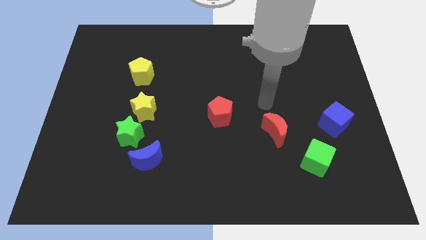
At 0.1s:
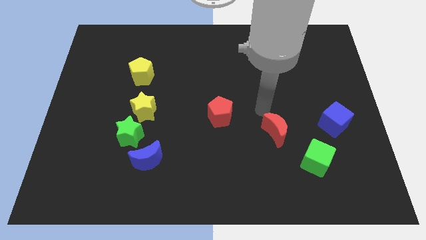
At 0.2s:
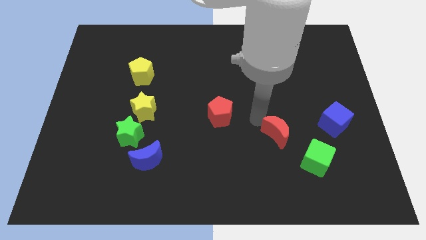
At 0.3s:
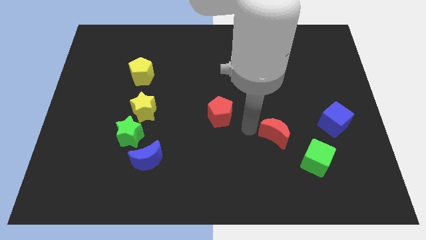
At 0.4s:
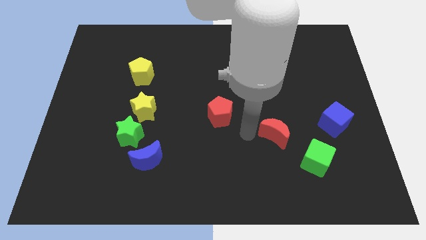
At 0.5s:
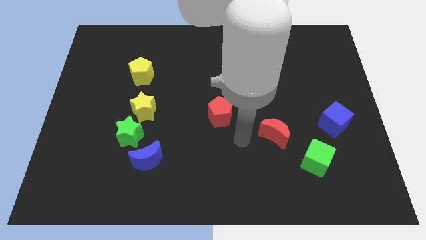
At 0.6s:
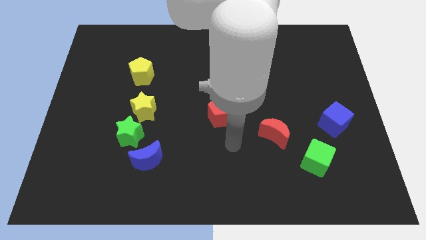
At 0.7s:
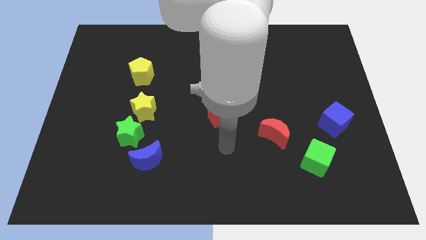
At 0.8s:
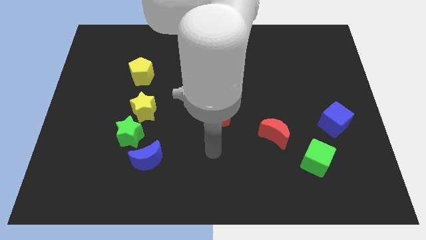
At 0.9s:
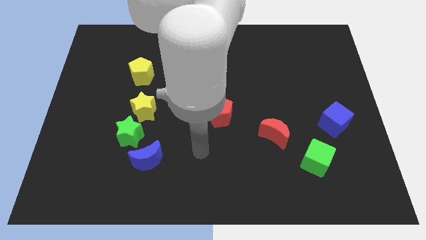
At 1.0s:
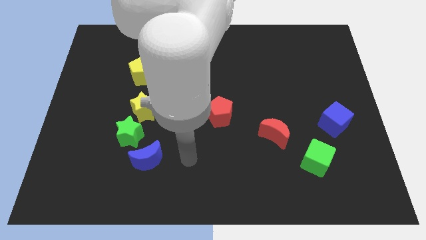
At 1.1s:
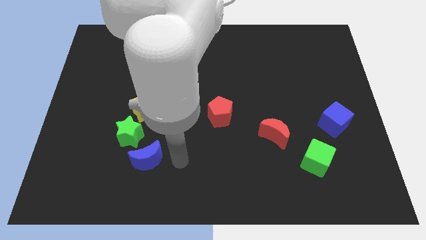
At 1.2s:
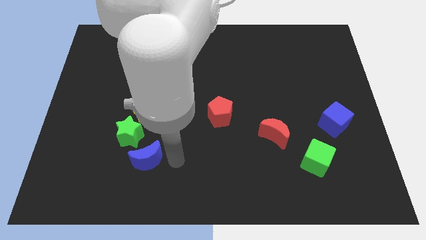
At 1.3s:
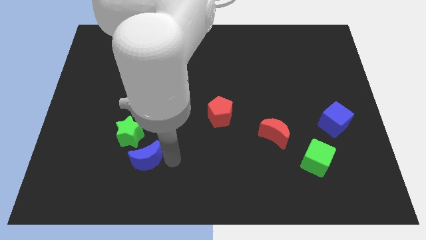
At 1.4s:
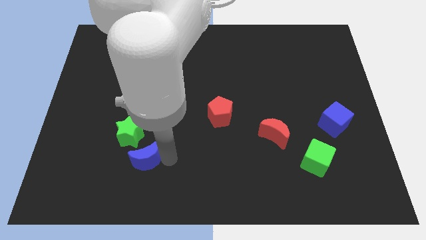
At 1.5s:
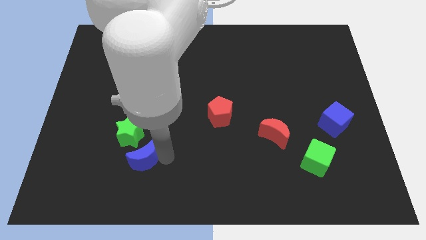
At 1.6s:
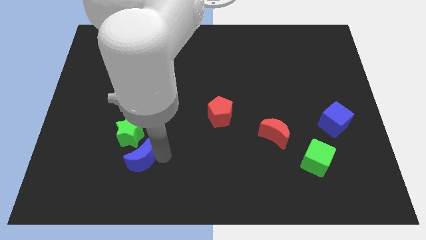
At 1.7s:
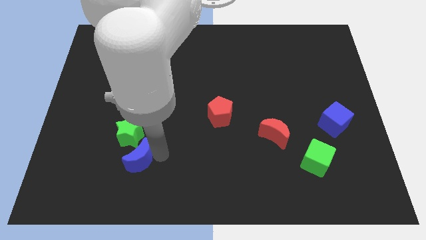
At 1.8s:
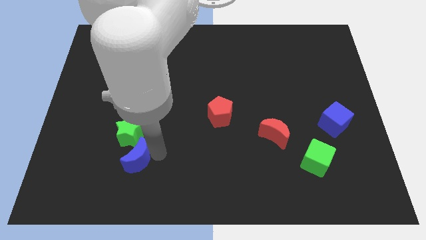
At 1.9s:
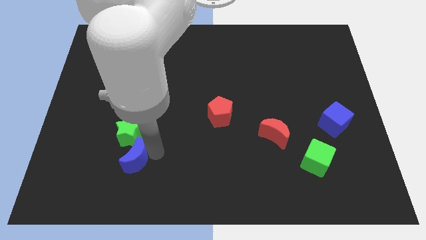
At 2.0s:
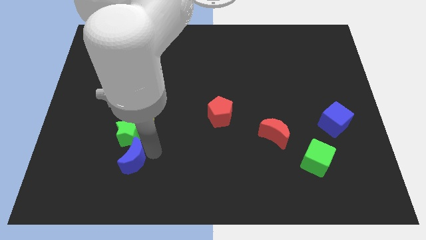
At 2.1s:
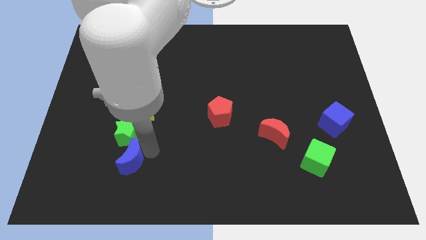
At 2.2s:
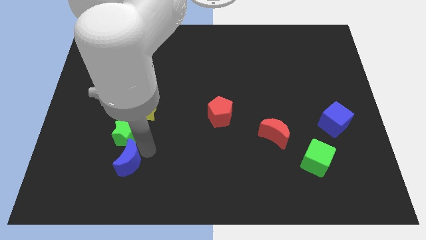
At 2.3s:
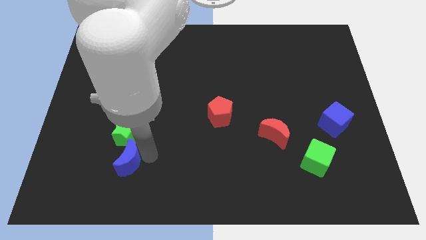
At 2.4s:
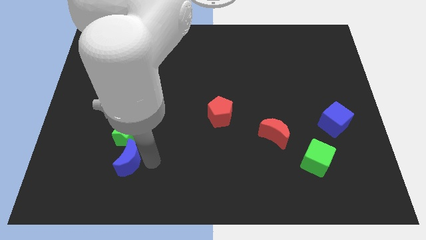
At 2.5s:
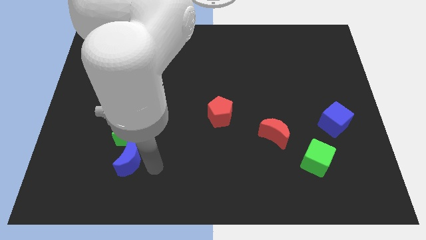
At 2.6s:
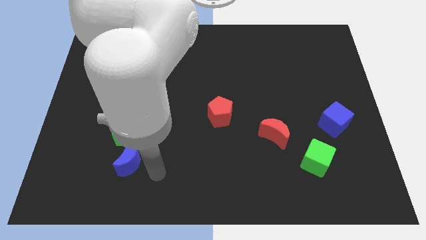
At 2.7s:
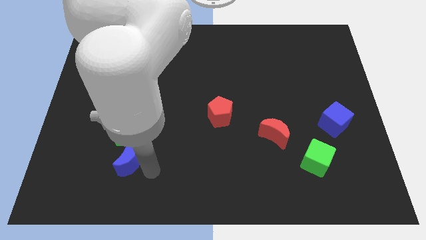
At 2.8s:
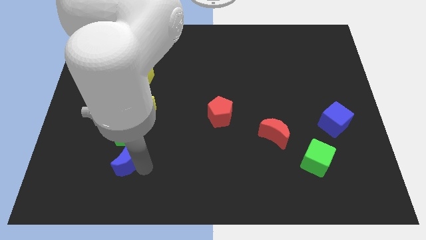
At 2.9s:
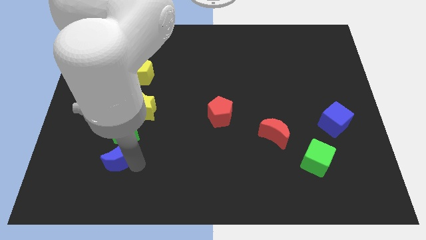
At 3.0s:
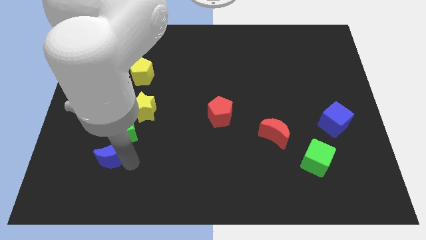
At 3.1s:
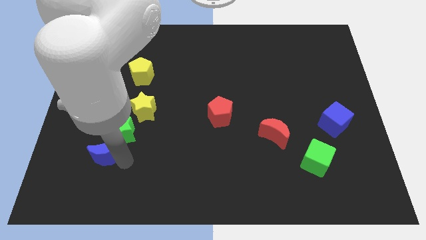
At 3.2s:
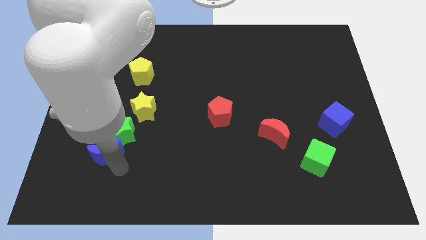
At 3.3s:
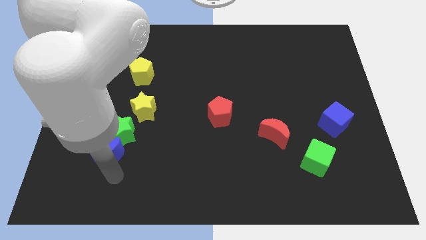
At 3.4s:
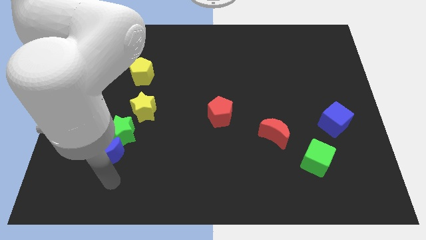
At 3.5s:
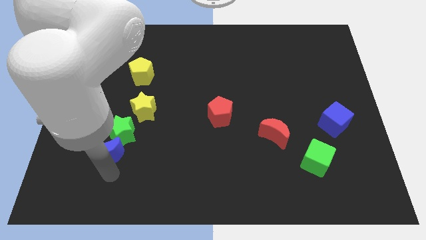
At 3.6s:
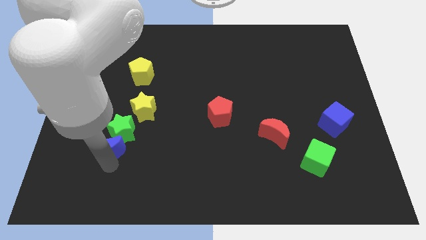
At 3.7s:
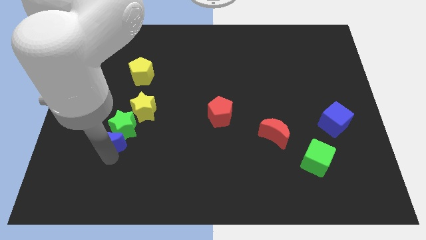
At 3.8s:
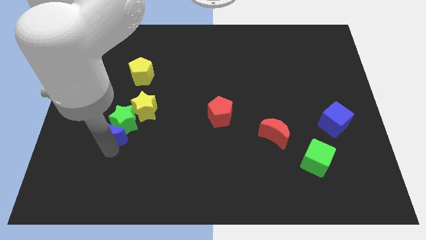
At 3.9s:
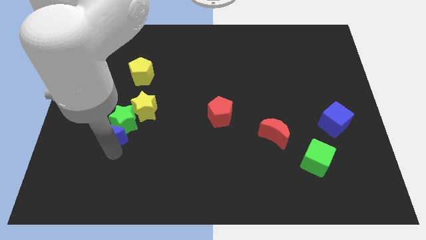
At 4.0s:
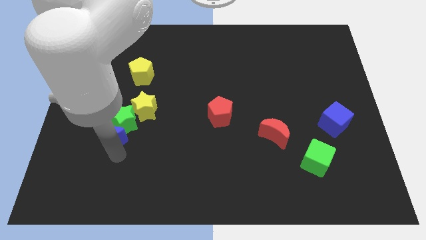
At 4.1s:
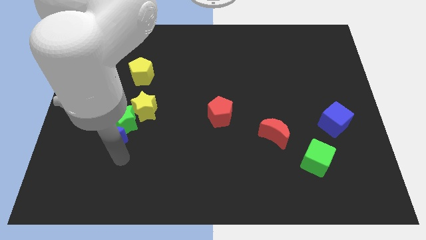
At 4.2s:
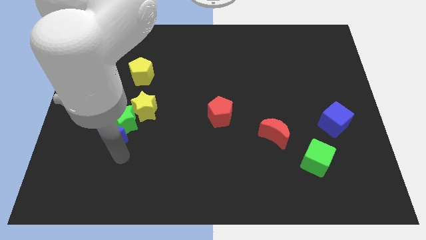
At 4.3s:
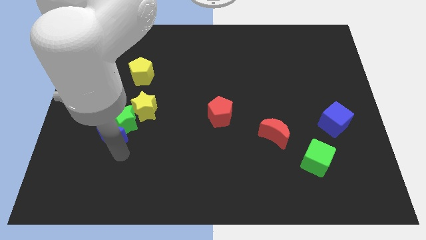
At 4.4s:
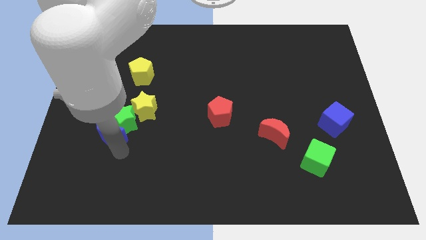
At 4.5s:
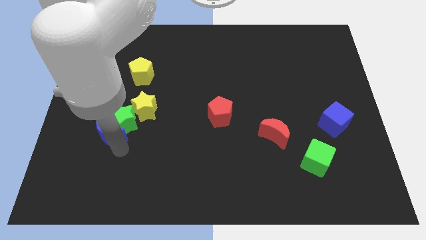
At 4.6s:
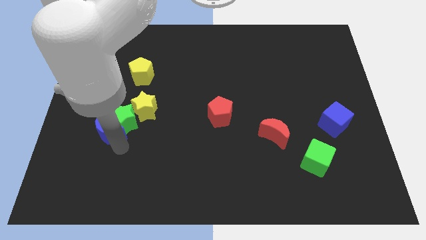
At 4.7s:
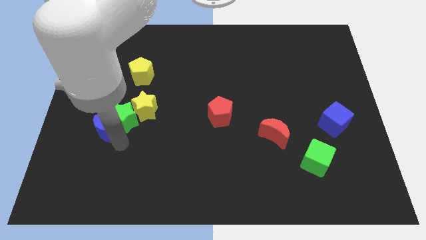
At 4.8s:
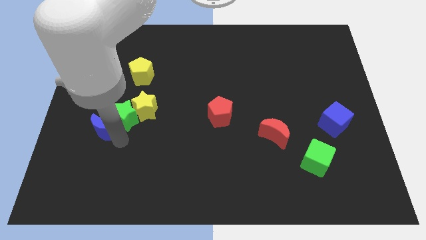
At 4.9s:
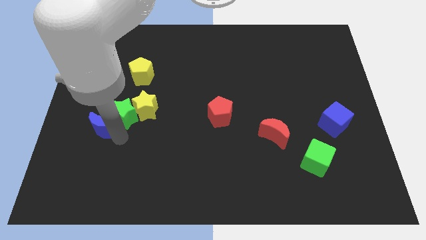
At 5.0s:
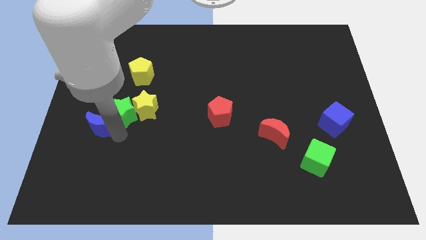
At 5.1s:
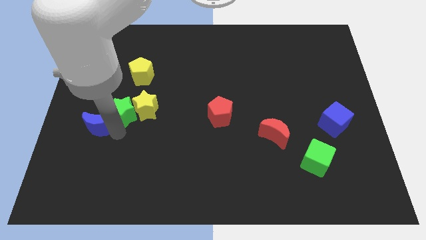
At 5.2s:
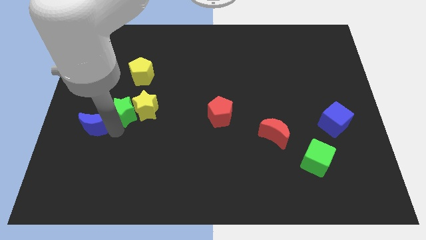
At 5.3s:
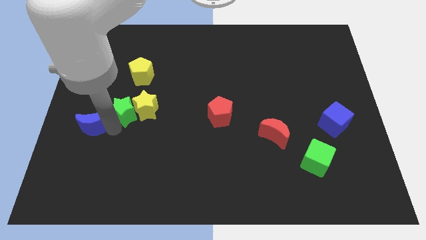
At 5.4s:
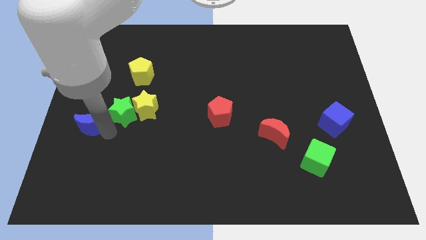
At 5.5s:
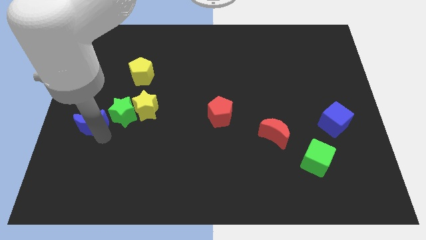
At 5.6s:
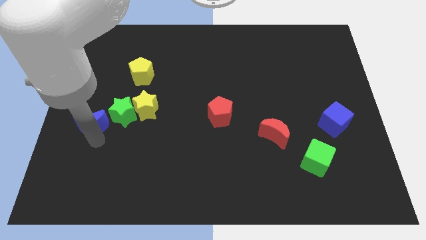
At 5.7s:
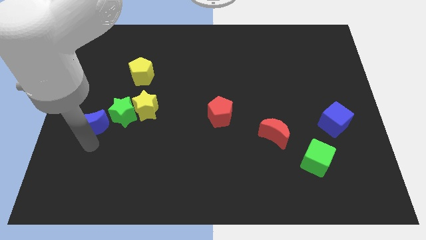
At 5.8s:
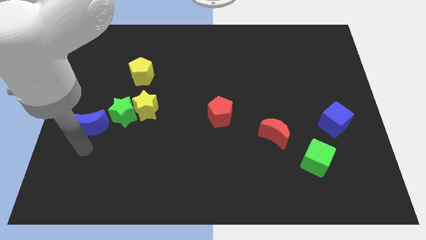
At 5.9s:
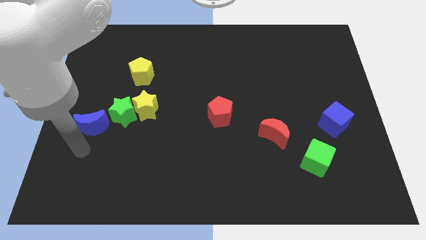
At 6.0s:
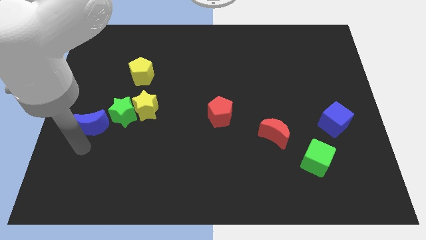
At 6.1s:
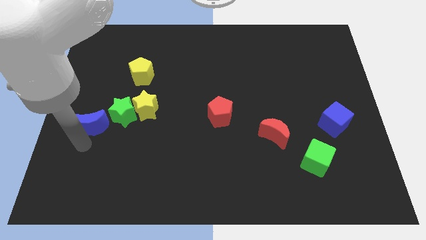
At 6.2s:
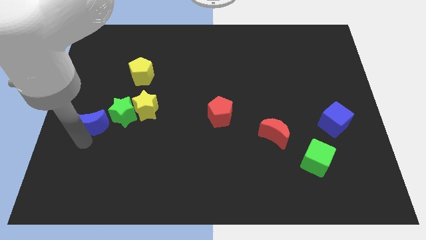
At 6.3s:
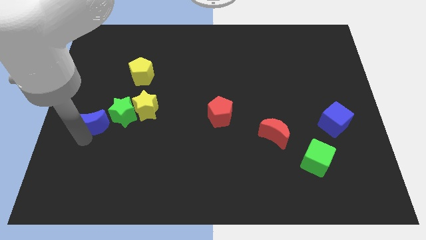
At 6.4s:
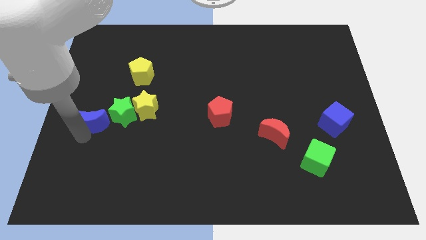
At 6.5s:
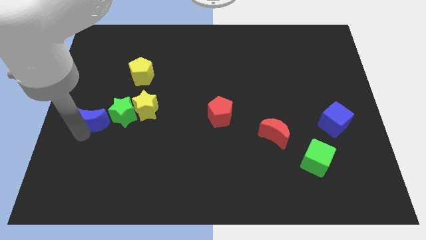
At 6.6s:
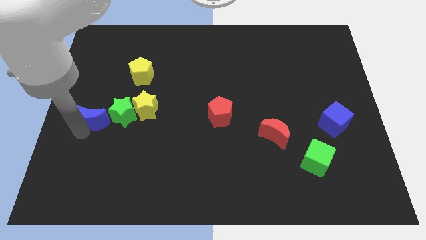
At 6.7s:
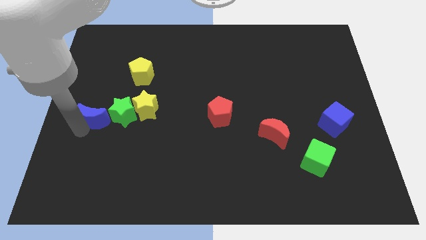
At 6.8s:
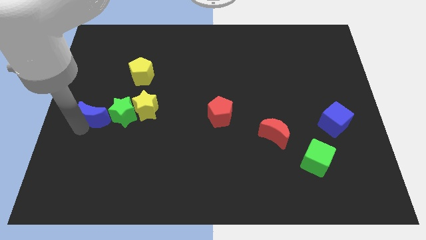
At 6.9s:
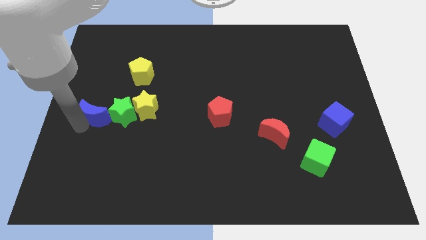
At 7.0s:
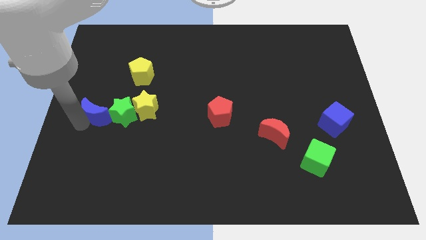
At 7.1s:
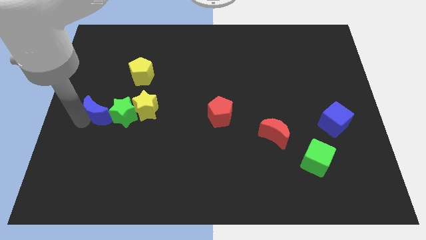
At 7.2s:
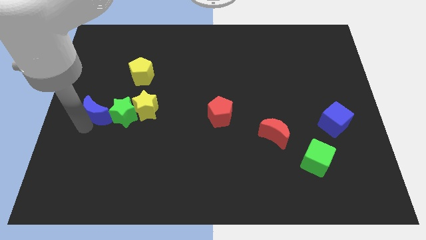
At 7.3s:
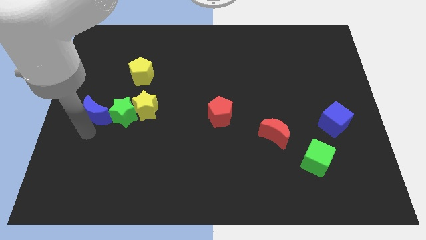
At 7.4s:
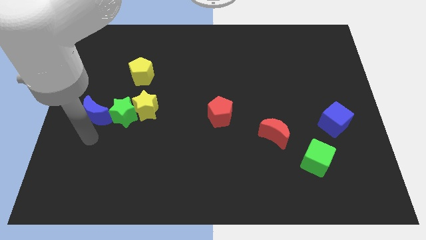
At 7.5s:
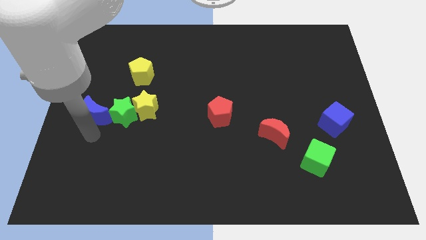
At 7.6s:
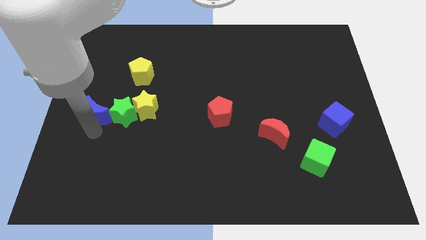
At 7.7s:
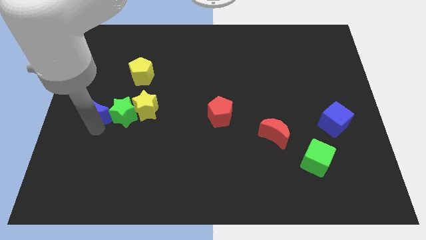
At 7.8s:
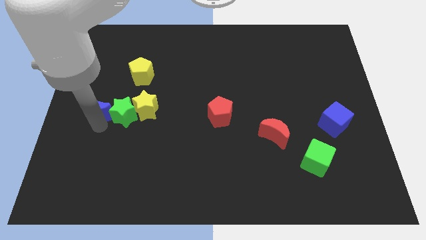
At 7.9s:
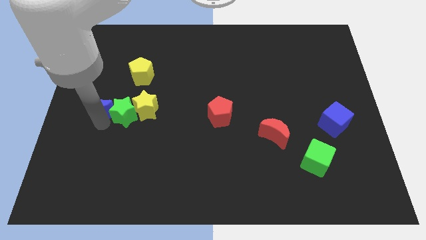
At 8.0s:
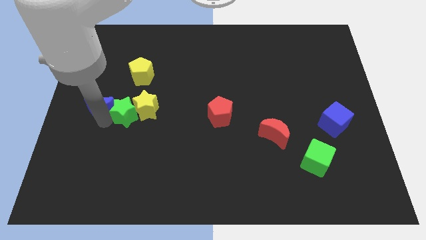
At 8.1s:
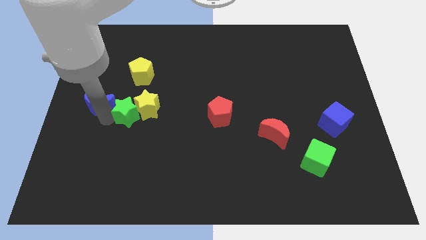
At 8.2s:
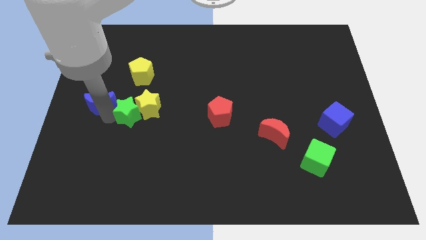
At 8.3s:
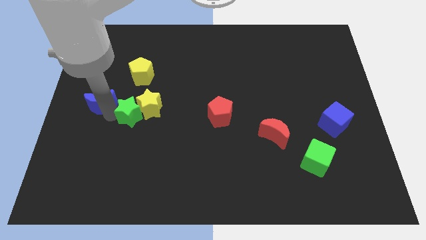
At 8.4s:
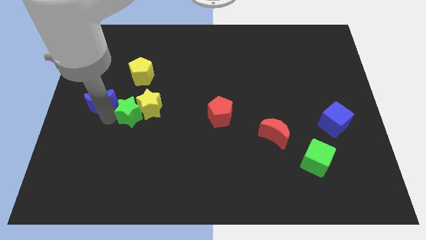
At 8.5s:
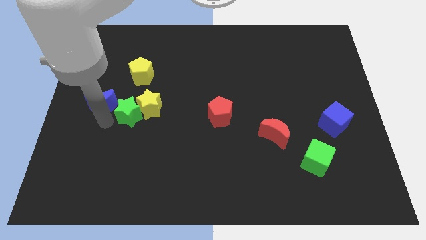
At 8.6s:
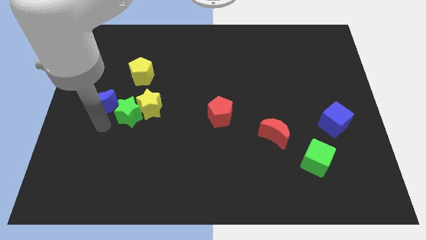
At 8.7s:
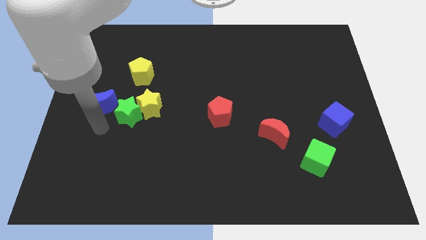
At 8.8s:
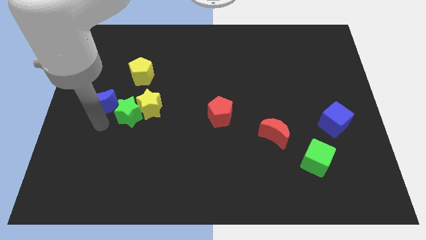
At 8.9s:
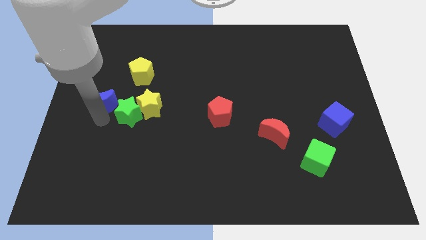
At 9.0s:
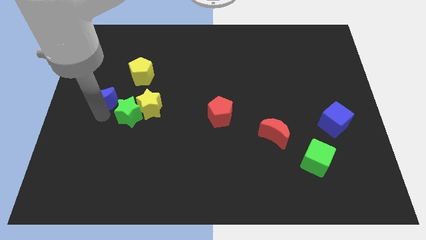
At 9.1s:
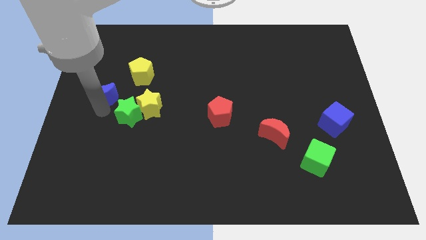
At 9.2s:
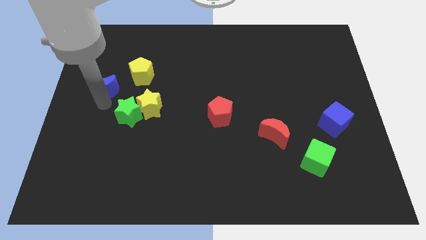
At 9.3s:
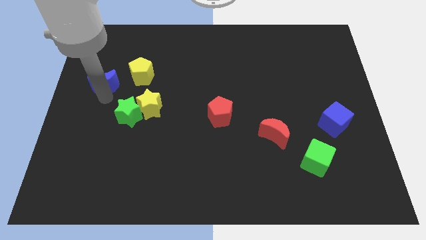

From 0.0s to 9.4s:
slide the blue moon to the left of the yellow pentagon
